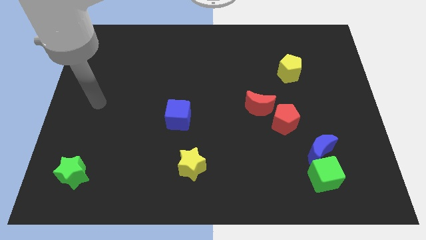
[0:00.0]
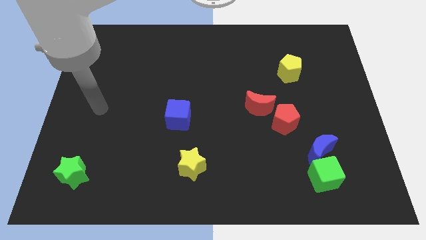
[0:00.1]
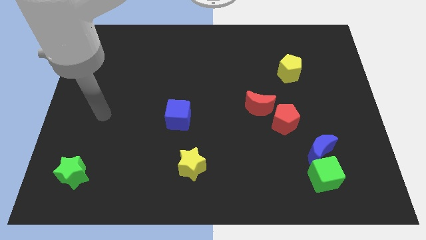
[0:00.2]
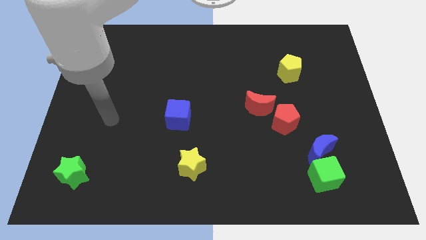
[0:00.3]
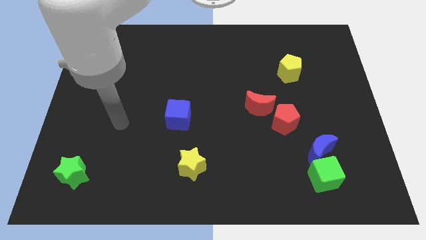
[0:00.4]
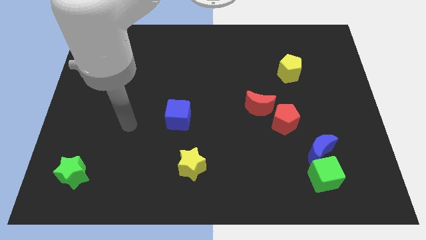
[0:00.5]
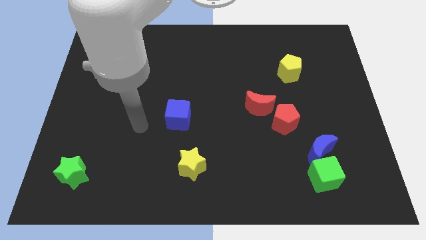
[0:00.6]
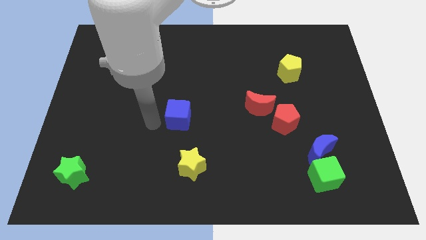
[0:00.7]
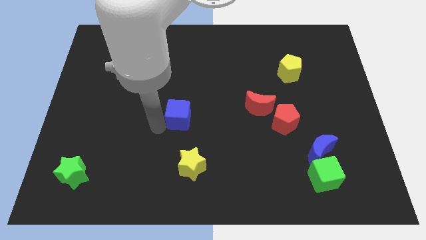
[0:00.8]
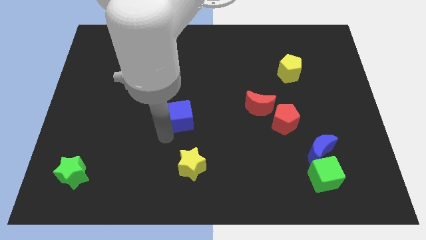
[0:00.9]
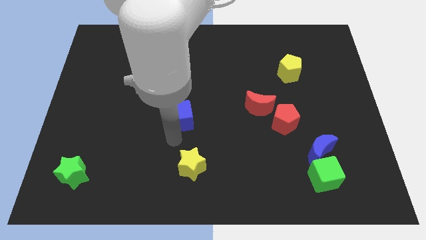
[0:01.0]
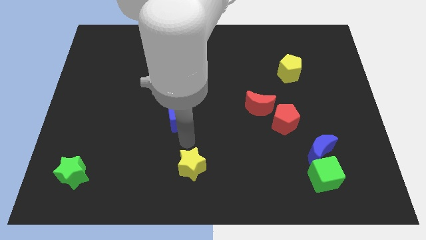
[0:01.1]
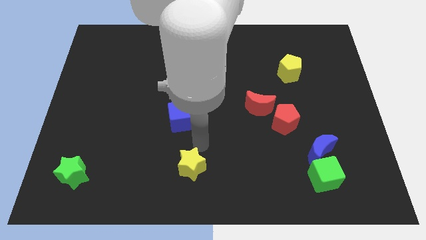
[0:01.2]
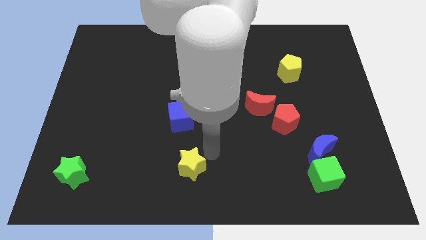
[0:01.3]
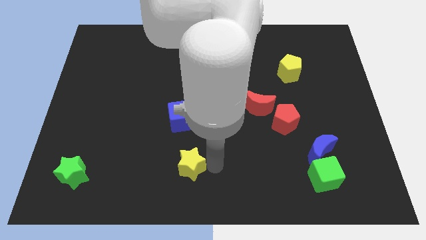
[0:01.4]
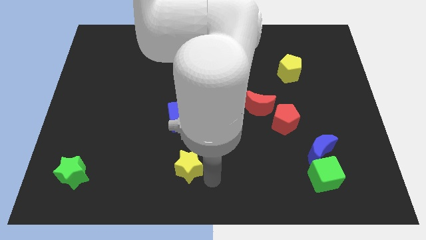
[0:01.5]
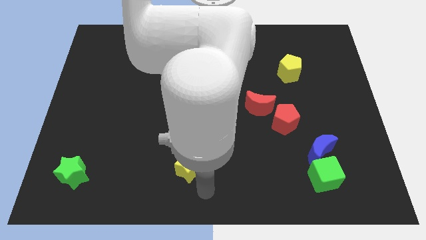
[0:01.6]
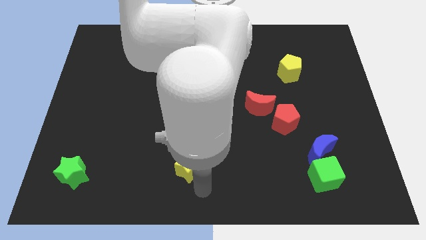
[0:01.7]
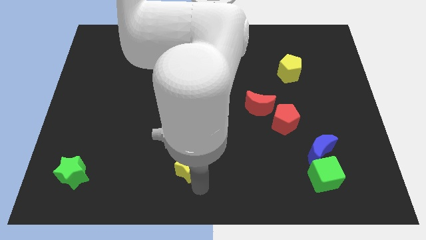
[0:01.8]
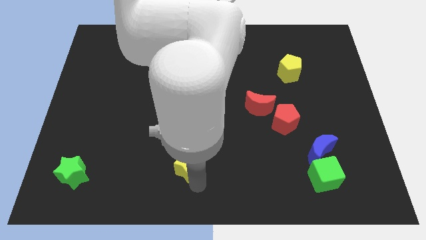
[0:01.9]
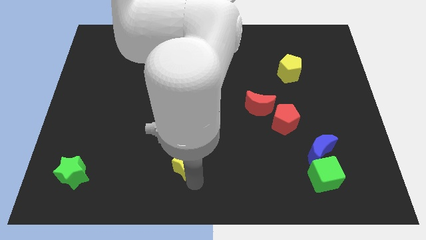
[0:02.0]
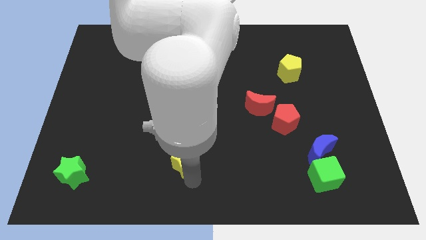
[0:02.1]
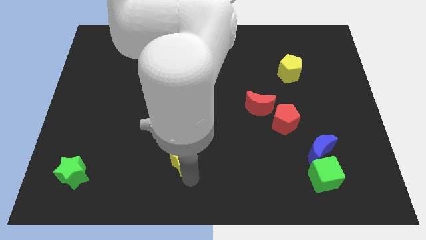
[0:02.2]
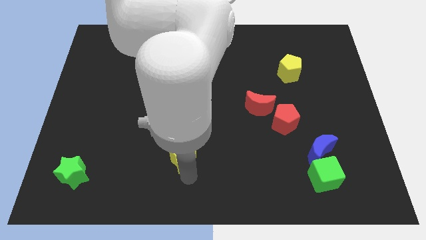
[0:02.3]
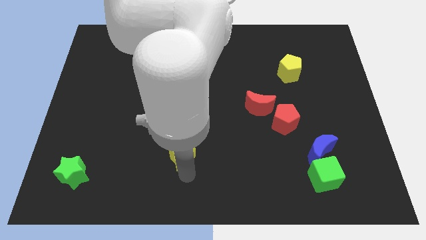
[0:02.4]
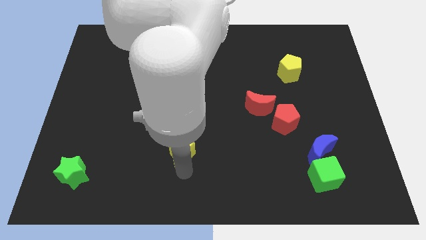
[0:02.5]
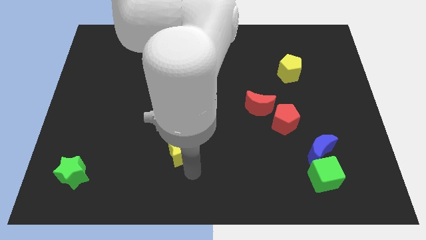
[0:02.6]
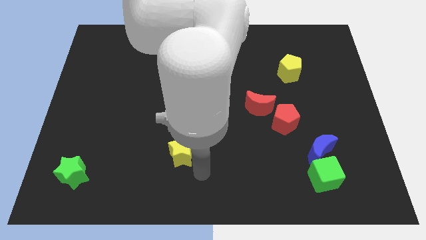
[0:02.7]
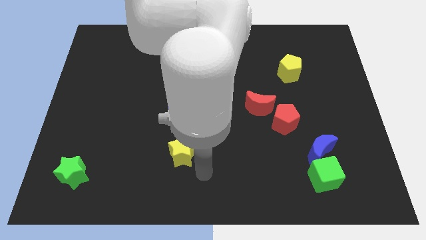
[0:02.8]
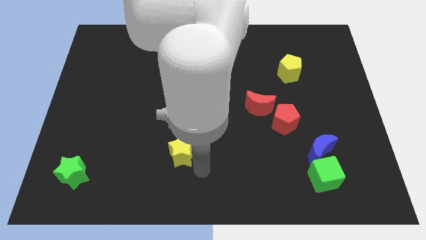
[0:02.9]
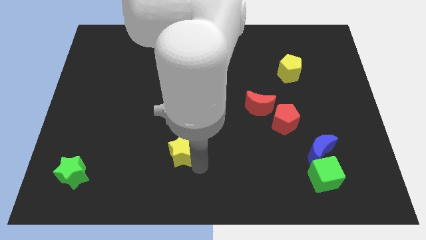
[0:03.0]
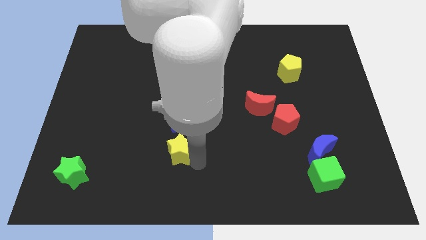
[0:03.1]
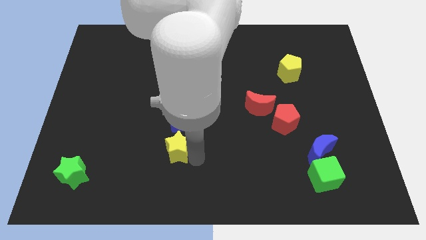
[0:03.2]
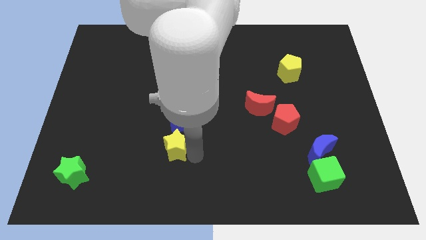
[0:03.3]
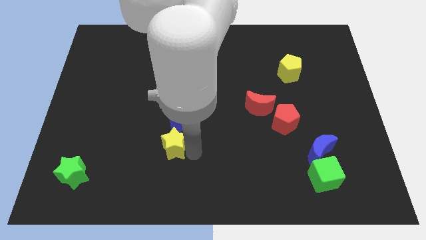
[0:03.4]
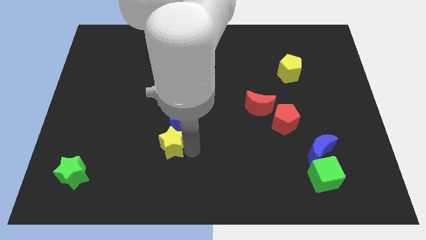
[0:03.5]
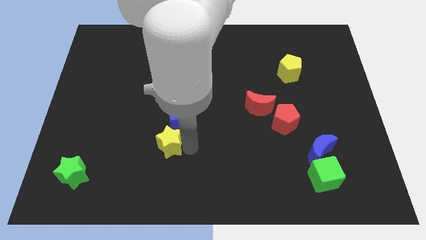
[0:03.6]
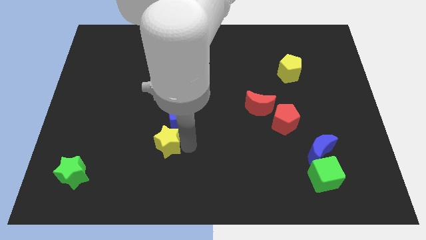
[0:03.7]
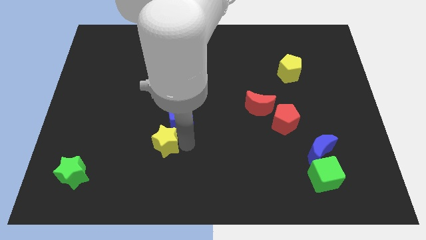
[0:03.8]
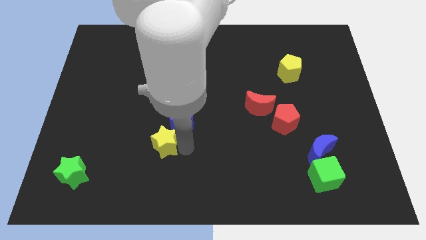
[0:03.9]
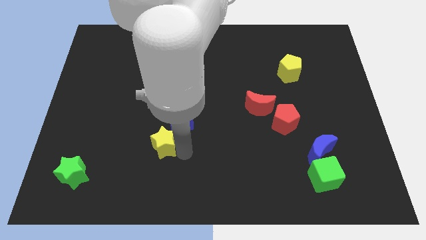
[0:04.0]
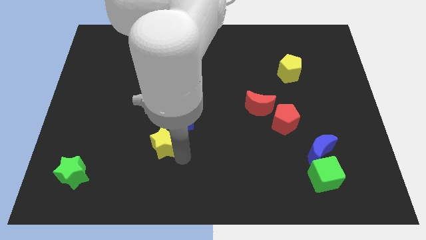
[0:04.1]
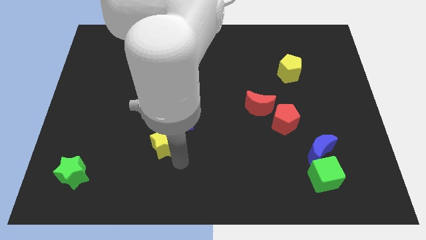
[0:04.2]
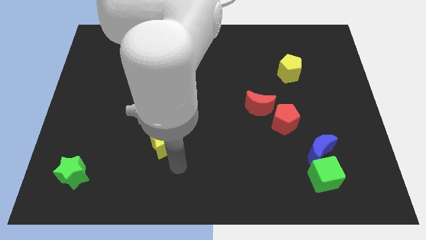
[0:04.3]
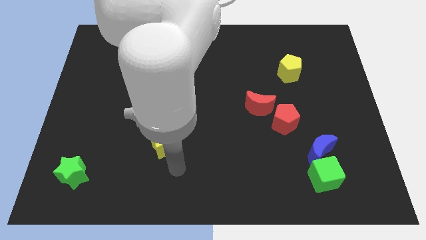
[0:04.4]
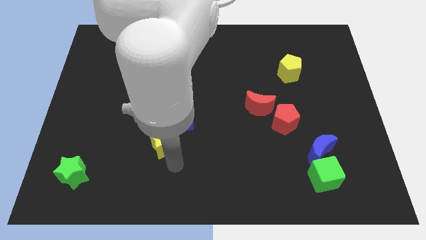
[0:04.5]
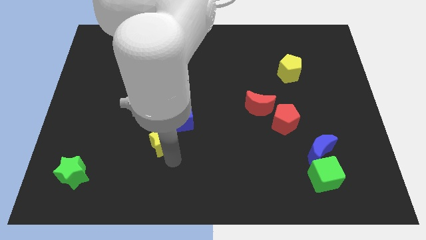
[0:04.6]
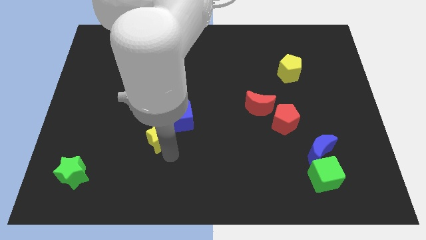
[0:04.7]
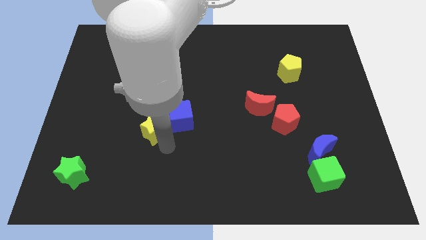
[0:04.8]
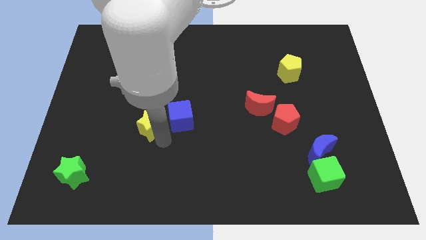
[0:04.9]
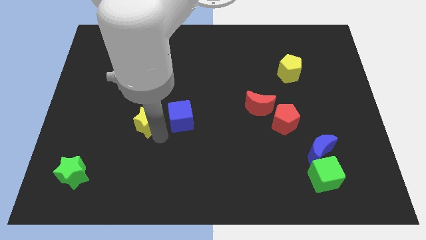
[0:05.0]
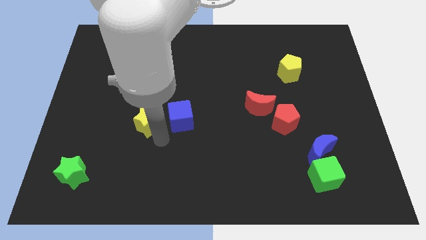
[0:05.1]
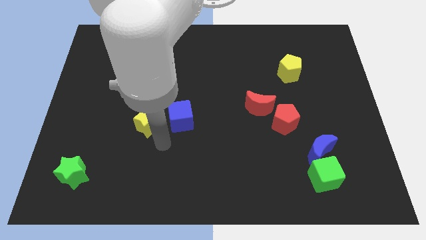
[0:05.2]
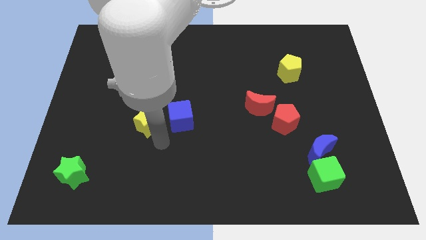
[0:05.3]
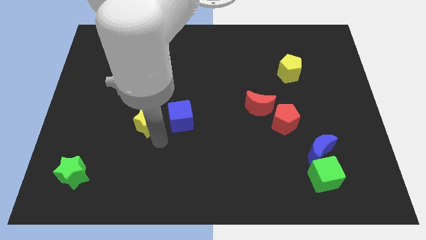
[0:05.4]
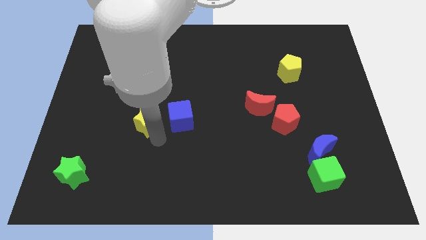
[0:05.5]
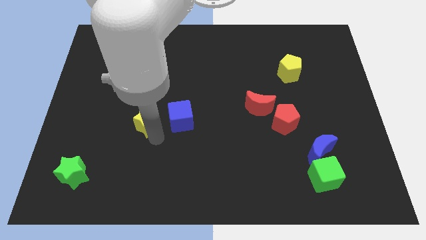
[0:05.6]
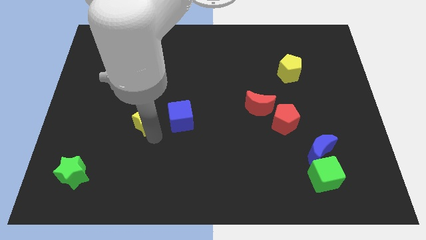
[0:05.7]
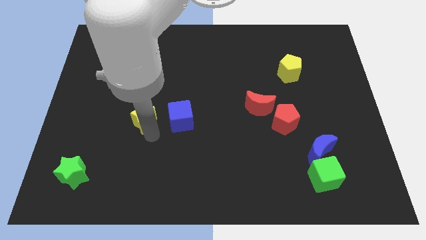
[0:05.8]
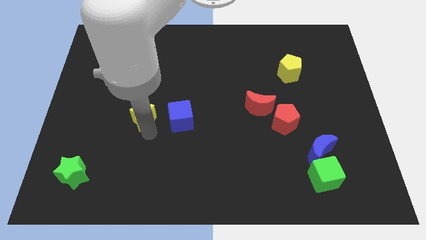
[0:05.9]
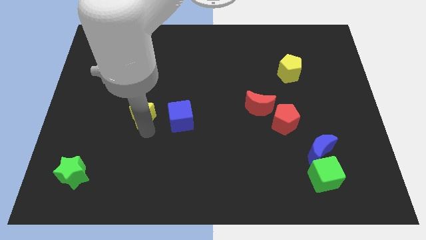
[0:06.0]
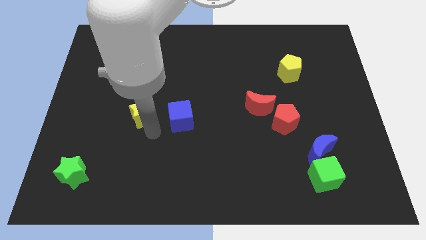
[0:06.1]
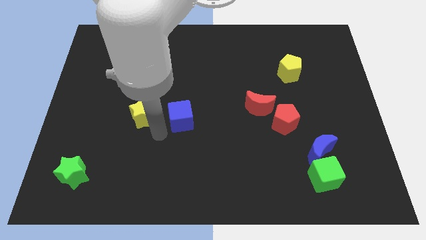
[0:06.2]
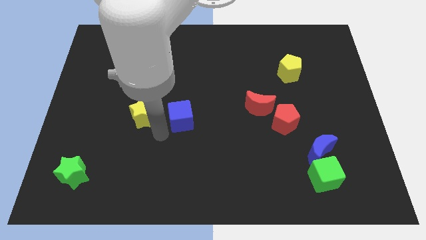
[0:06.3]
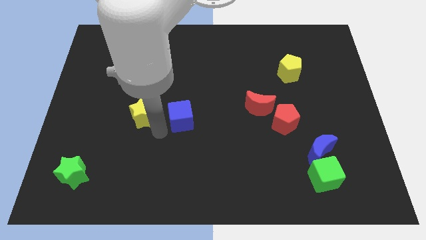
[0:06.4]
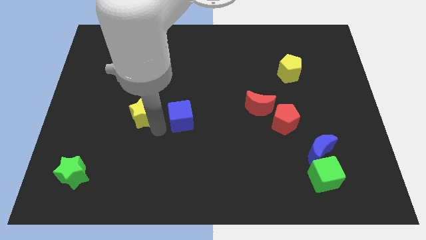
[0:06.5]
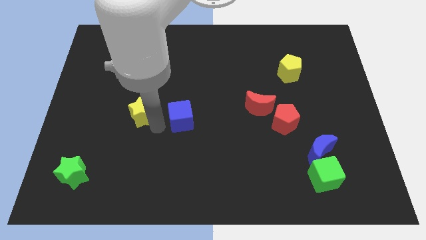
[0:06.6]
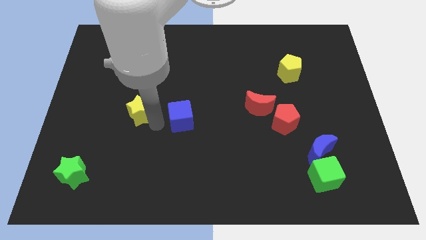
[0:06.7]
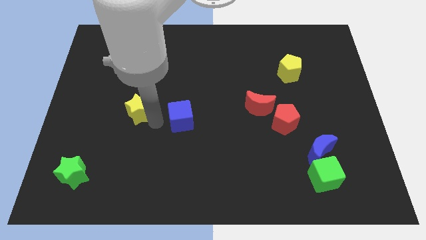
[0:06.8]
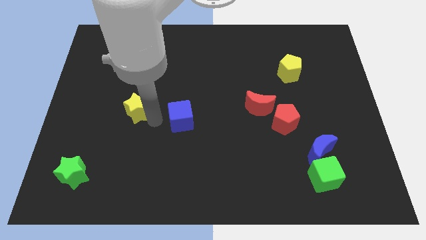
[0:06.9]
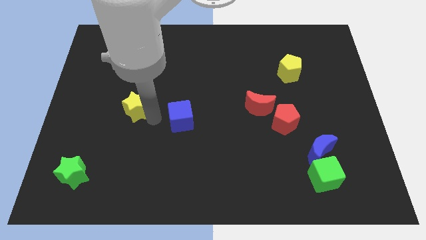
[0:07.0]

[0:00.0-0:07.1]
push the yellow star up and to the left diagonally

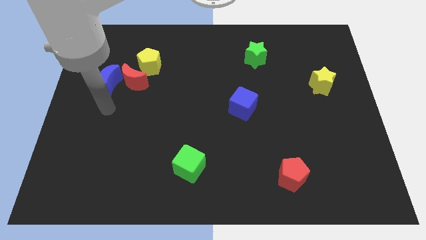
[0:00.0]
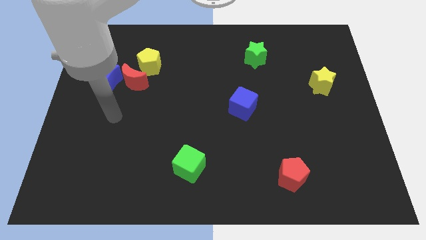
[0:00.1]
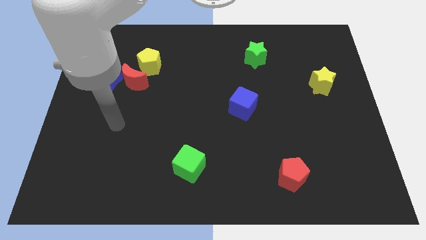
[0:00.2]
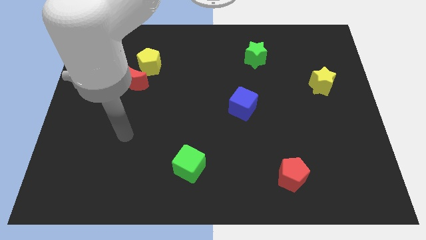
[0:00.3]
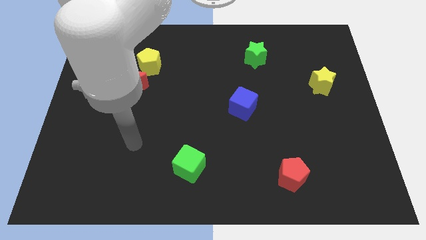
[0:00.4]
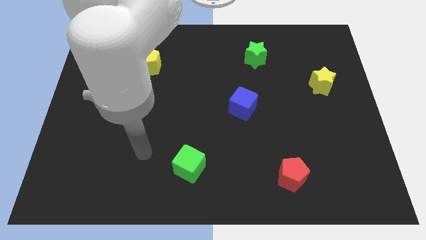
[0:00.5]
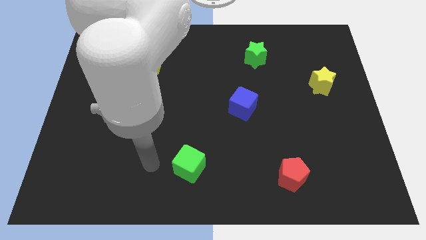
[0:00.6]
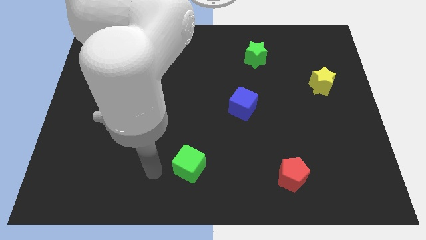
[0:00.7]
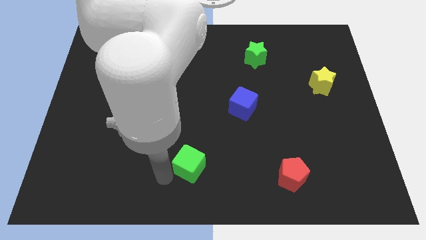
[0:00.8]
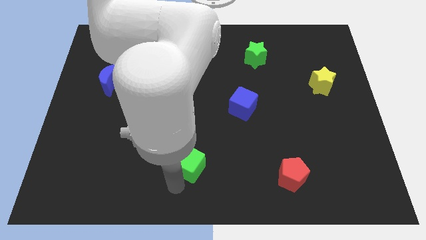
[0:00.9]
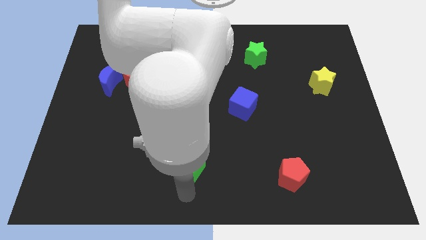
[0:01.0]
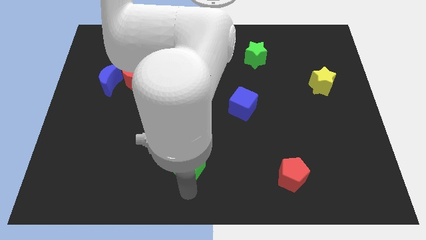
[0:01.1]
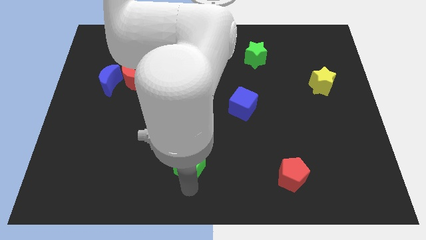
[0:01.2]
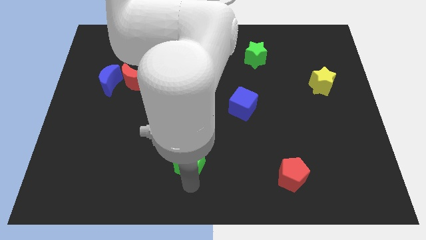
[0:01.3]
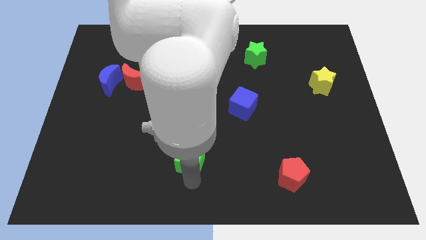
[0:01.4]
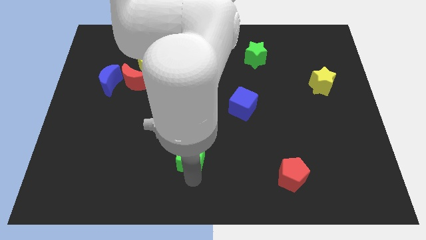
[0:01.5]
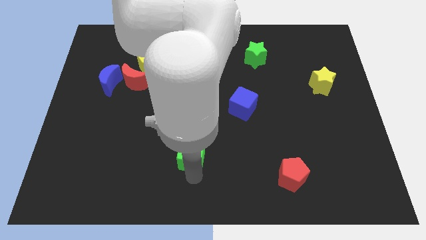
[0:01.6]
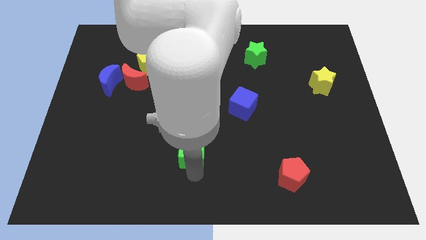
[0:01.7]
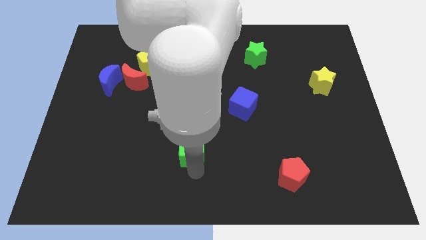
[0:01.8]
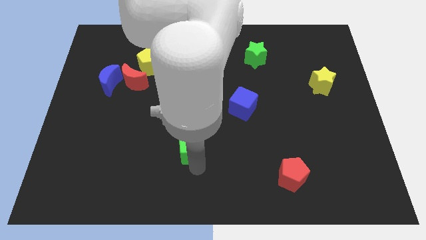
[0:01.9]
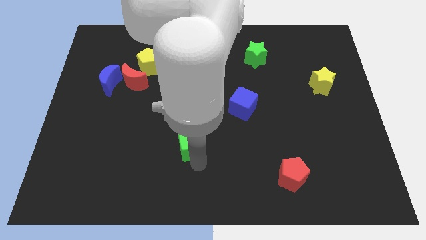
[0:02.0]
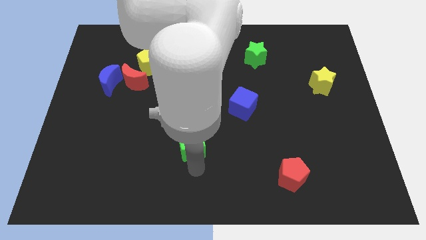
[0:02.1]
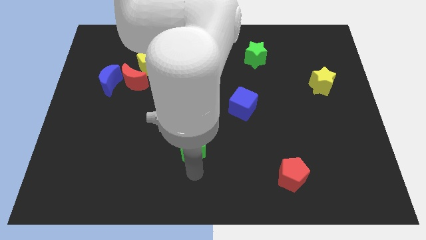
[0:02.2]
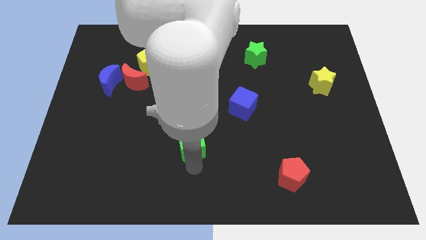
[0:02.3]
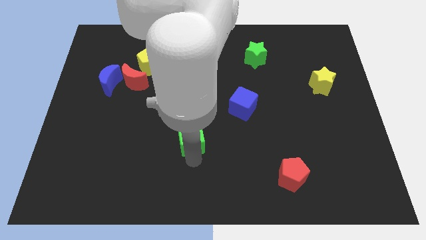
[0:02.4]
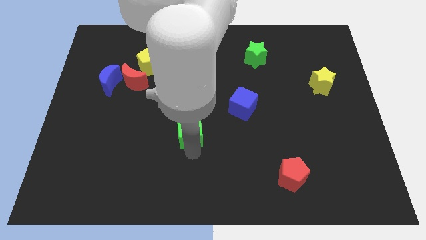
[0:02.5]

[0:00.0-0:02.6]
push the green cube a bit up
